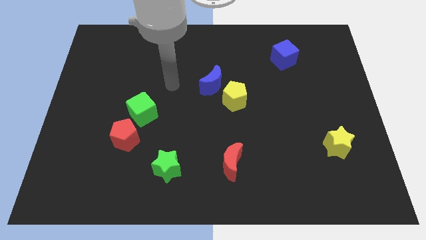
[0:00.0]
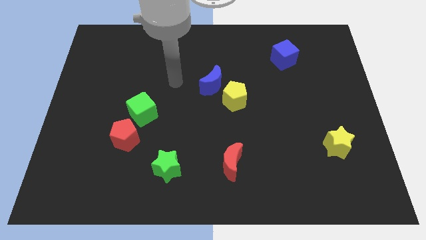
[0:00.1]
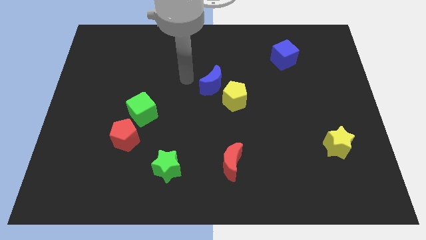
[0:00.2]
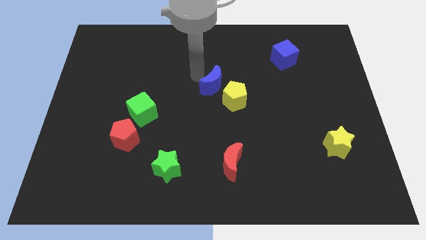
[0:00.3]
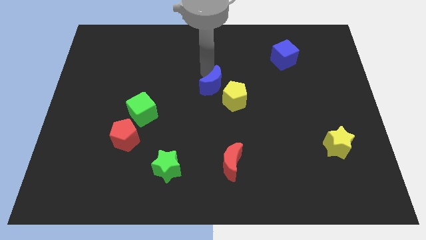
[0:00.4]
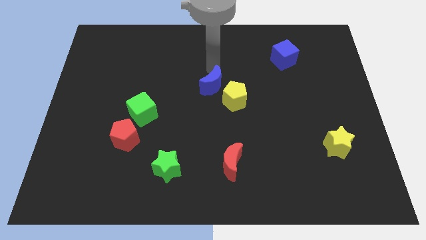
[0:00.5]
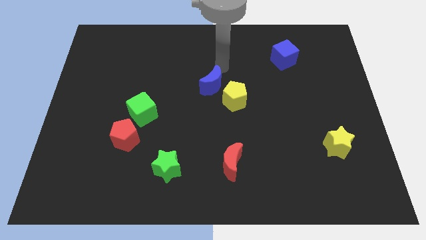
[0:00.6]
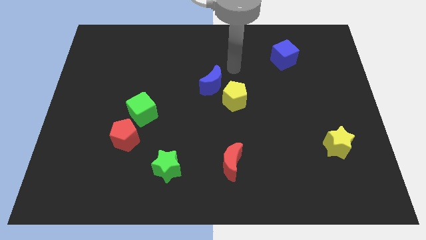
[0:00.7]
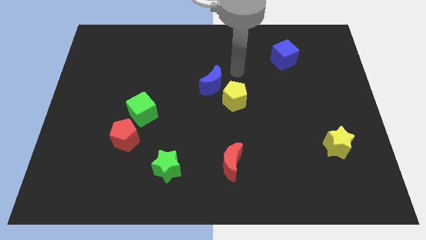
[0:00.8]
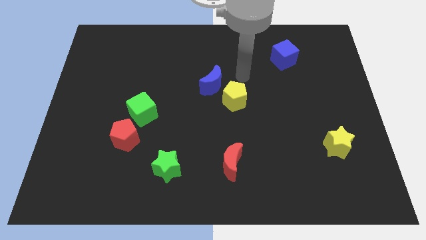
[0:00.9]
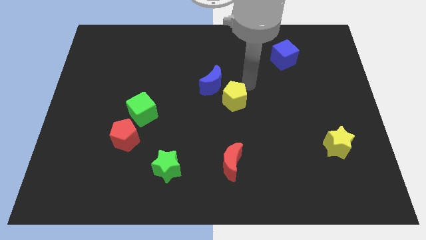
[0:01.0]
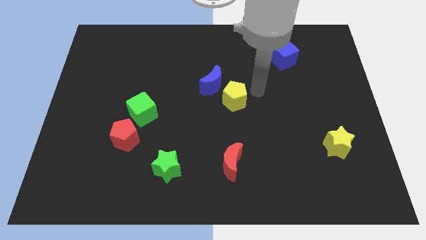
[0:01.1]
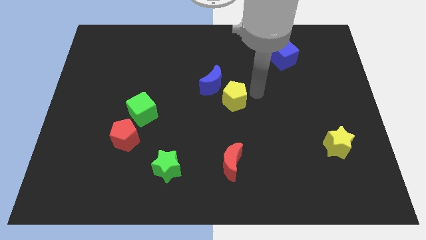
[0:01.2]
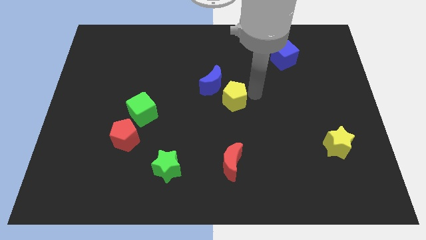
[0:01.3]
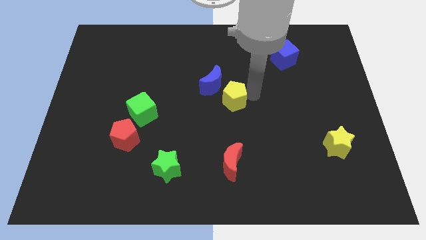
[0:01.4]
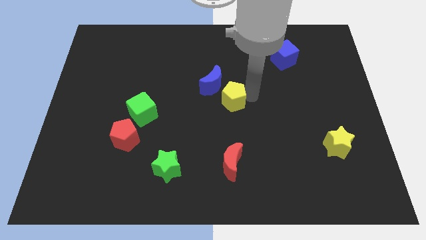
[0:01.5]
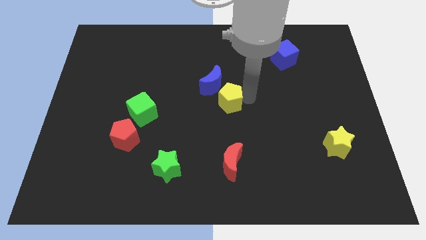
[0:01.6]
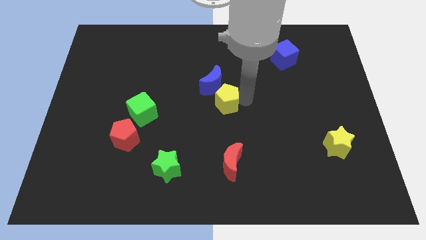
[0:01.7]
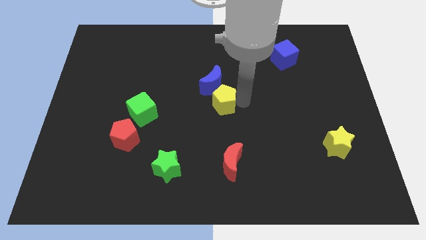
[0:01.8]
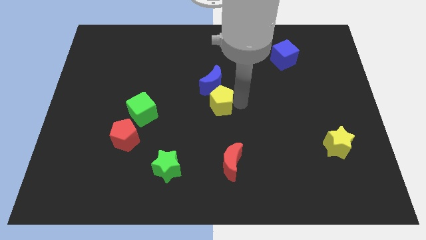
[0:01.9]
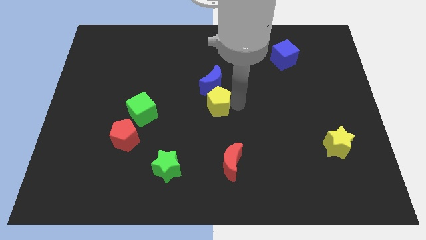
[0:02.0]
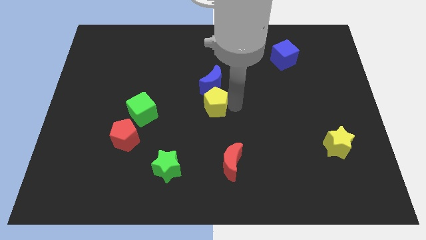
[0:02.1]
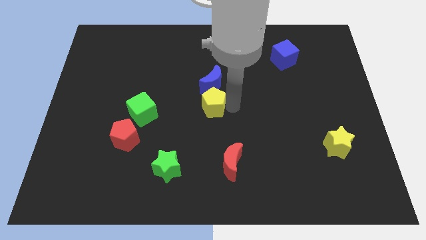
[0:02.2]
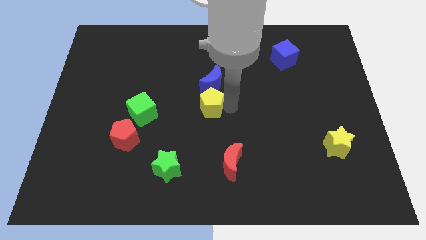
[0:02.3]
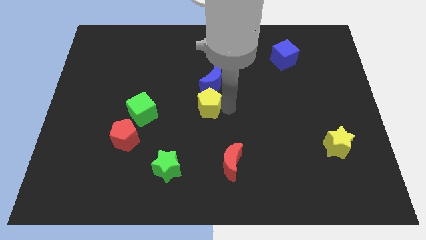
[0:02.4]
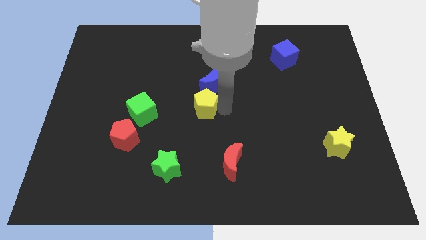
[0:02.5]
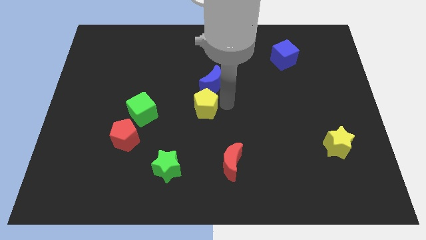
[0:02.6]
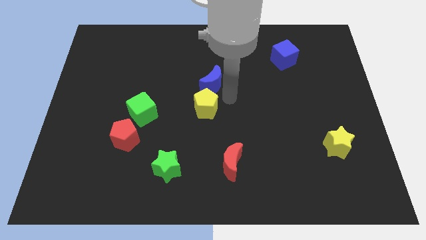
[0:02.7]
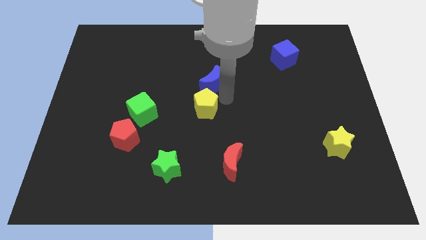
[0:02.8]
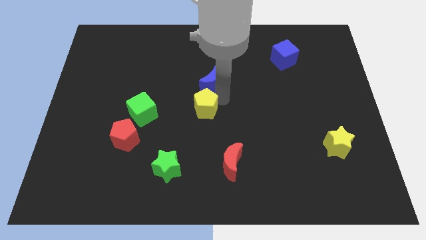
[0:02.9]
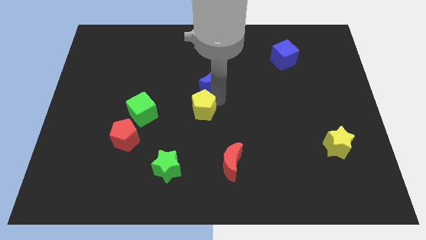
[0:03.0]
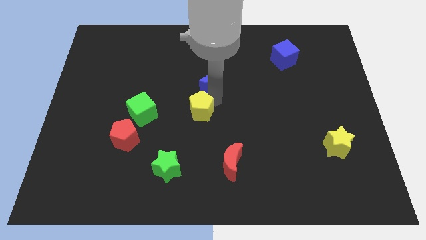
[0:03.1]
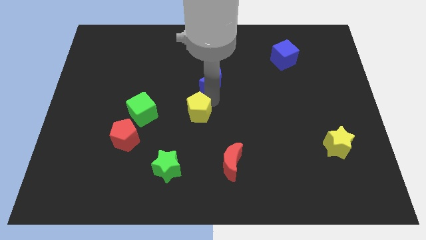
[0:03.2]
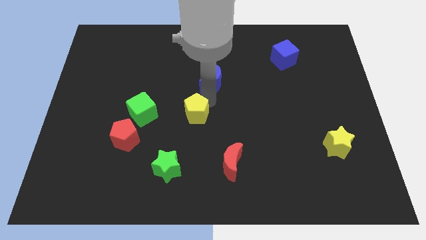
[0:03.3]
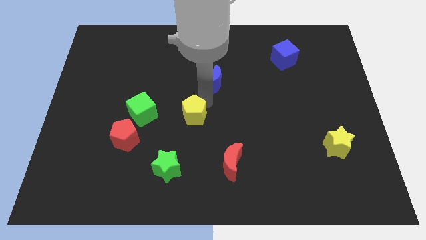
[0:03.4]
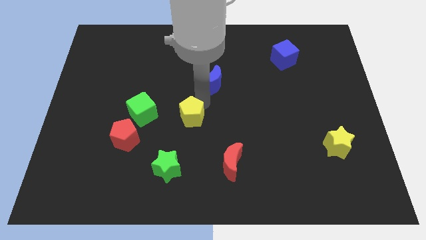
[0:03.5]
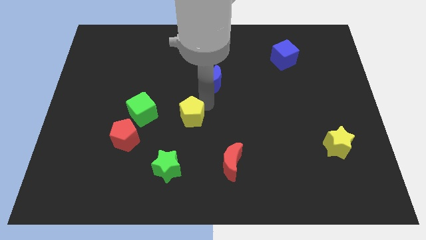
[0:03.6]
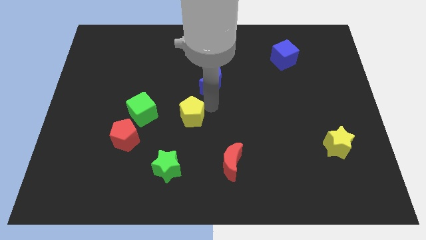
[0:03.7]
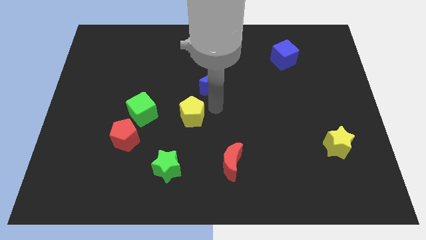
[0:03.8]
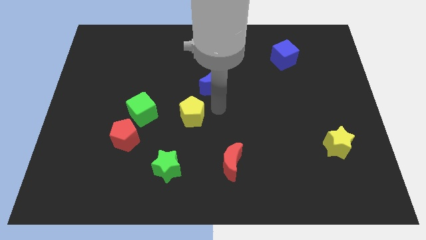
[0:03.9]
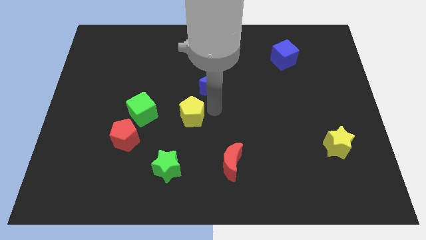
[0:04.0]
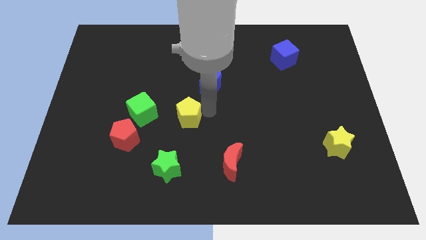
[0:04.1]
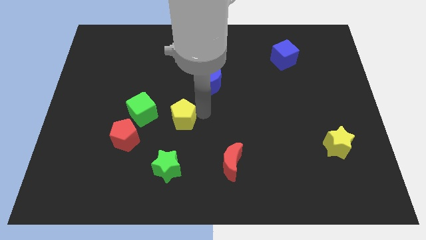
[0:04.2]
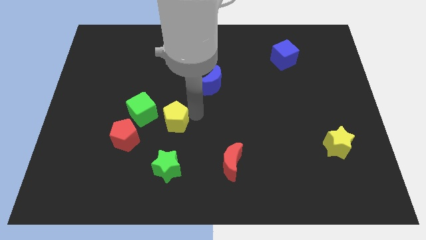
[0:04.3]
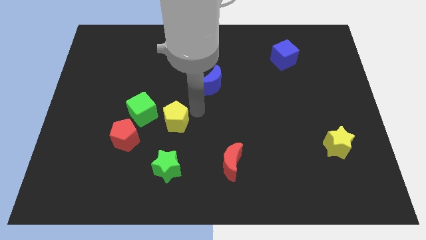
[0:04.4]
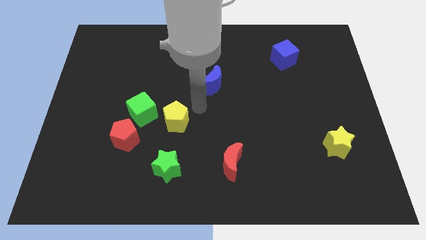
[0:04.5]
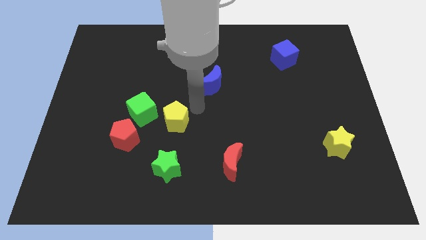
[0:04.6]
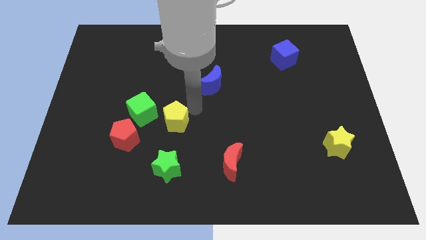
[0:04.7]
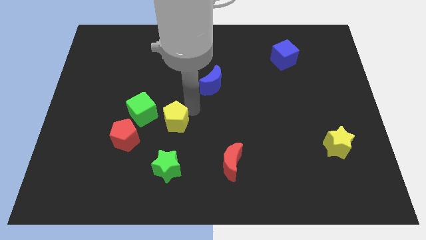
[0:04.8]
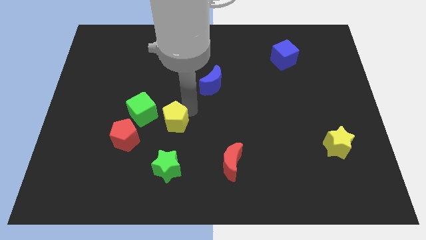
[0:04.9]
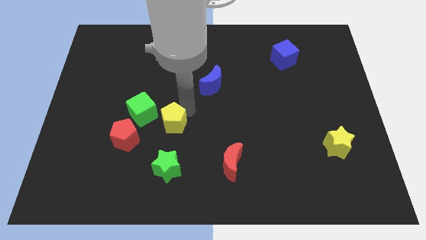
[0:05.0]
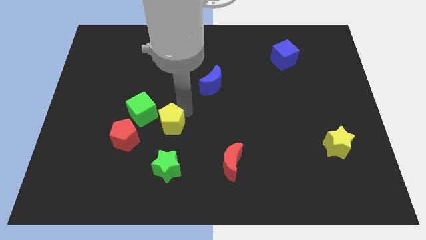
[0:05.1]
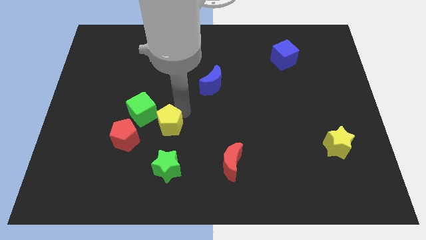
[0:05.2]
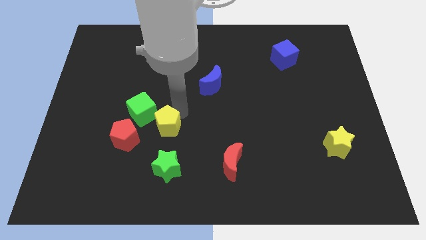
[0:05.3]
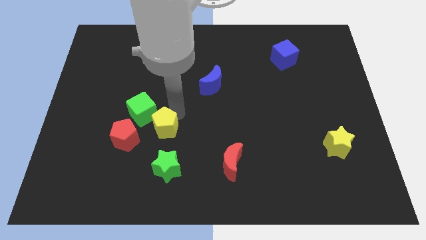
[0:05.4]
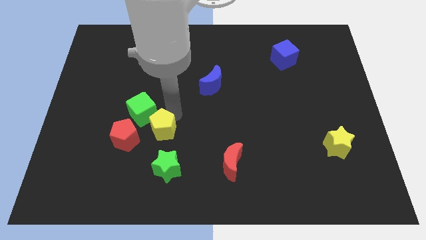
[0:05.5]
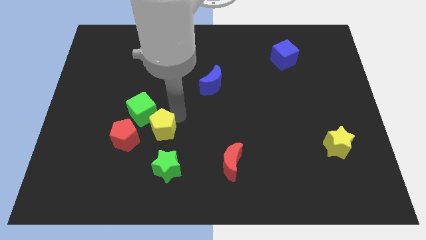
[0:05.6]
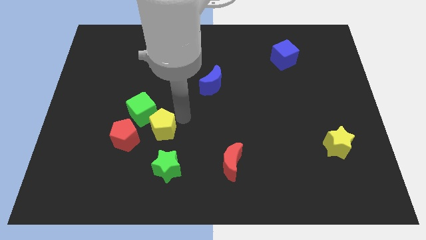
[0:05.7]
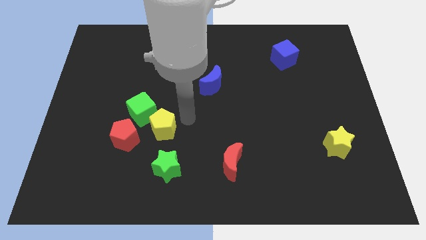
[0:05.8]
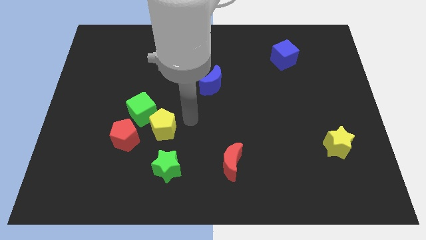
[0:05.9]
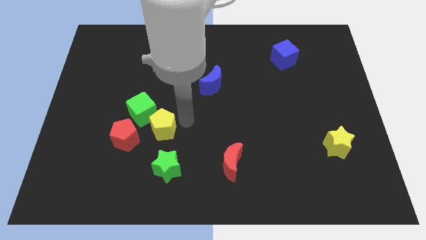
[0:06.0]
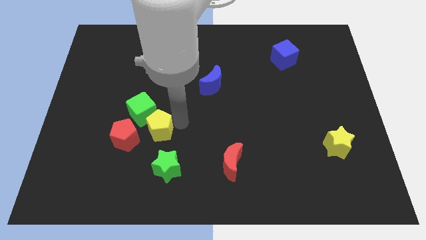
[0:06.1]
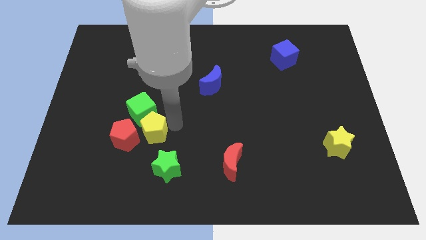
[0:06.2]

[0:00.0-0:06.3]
put the yellow pentagon towards the red pentagon
